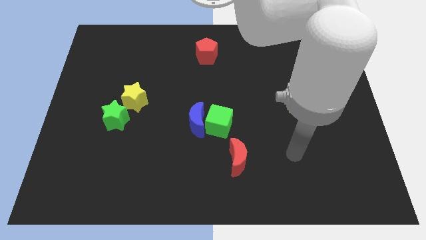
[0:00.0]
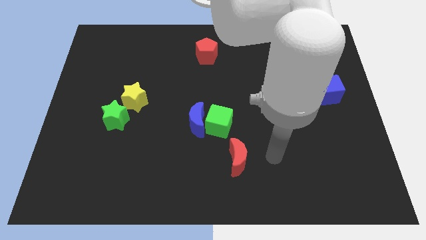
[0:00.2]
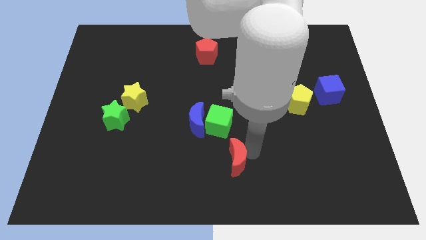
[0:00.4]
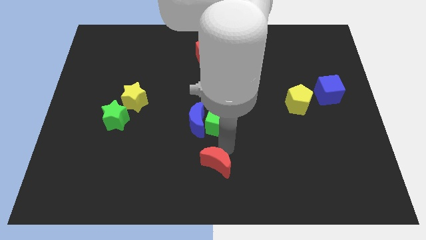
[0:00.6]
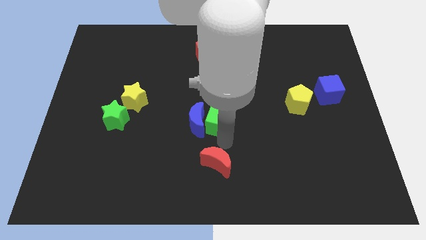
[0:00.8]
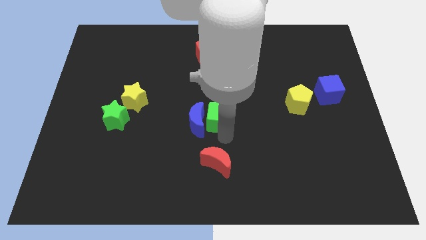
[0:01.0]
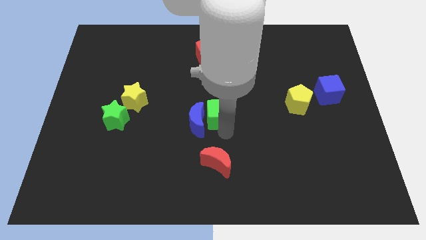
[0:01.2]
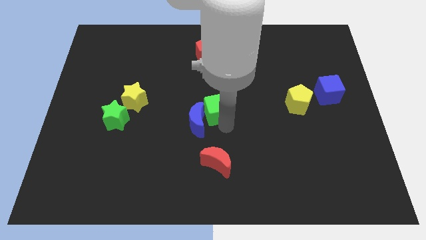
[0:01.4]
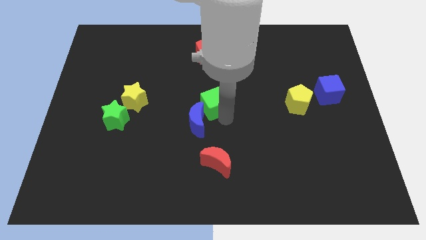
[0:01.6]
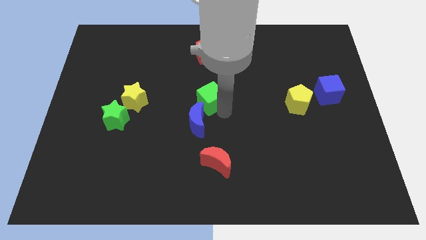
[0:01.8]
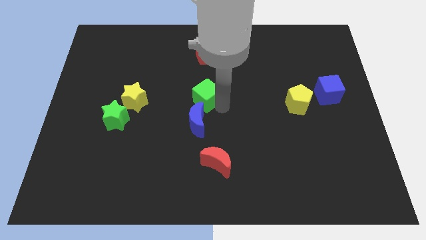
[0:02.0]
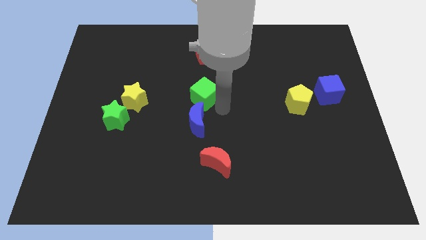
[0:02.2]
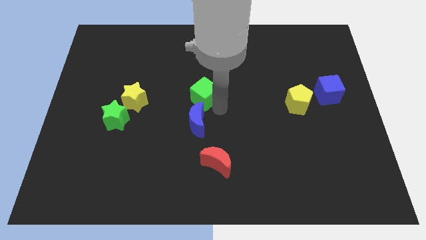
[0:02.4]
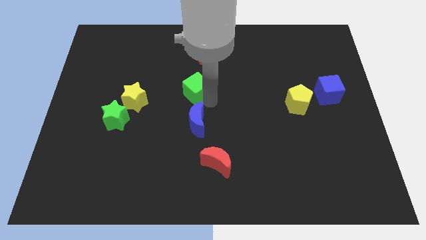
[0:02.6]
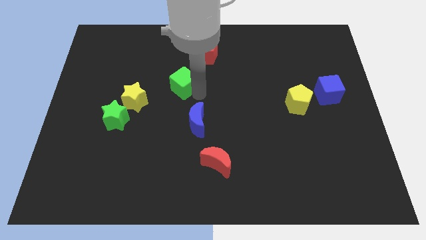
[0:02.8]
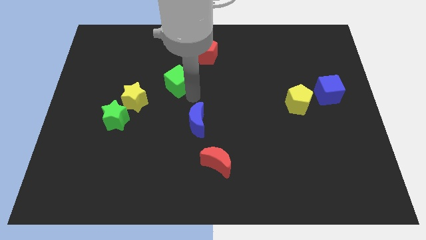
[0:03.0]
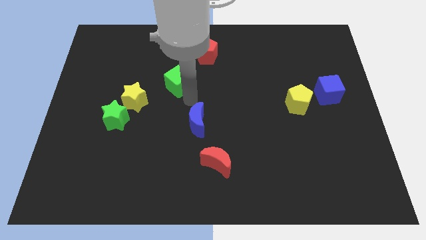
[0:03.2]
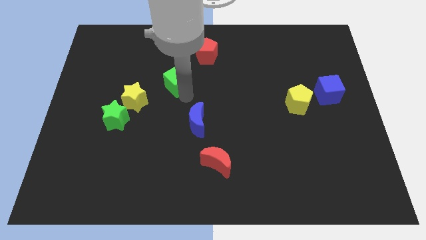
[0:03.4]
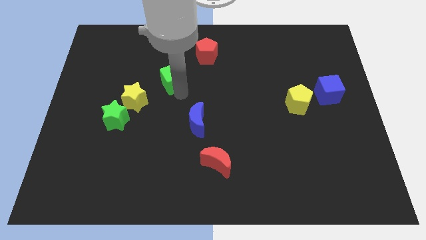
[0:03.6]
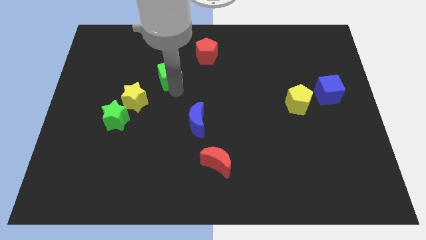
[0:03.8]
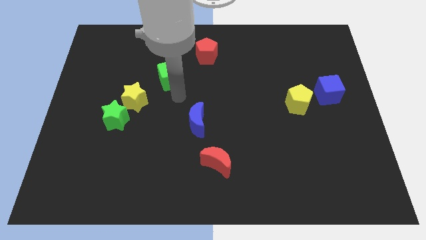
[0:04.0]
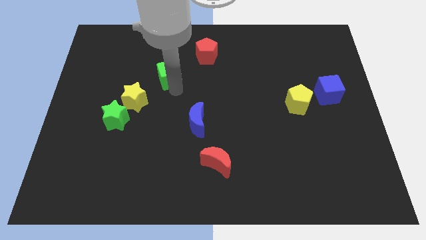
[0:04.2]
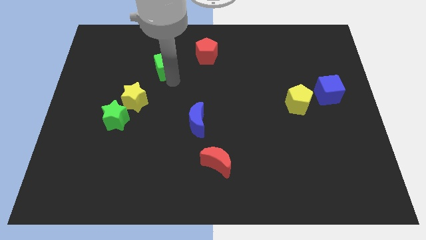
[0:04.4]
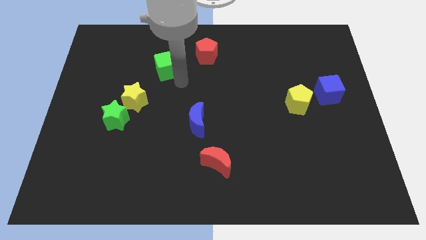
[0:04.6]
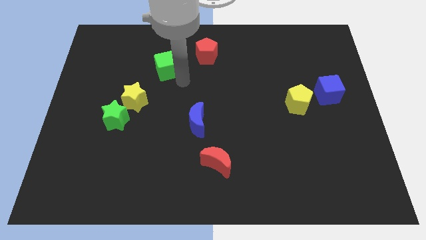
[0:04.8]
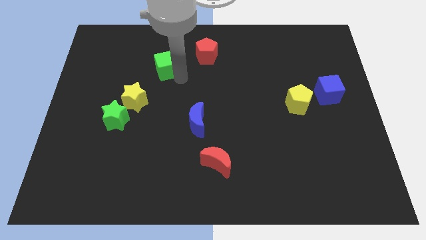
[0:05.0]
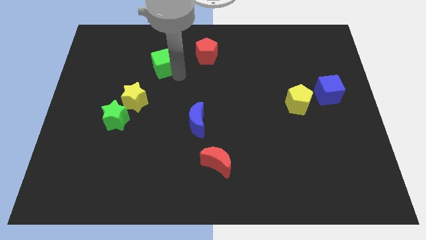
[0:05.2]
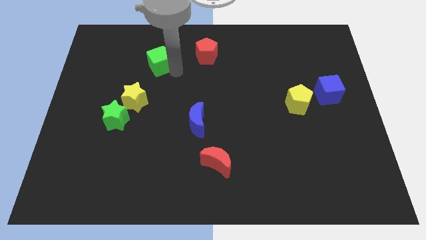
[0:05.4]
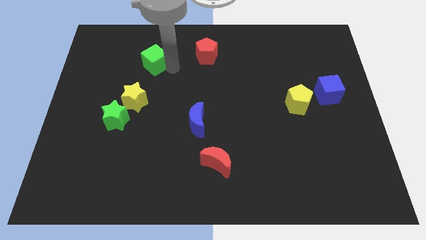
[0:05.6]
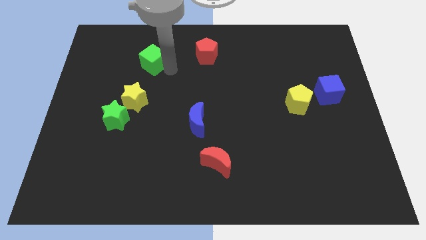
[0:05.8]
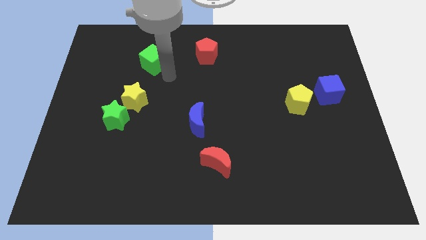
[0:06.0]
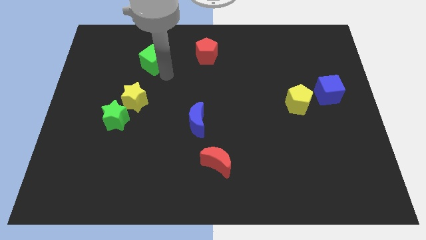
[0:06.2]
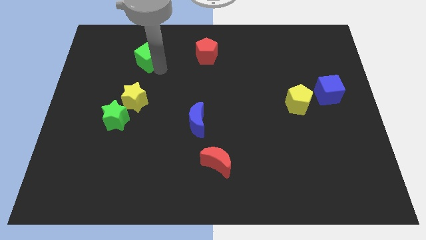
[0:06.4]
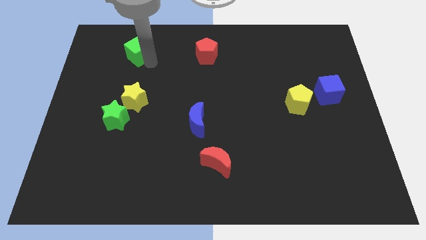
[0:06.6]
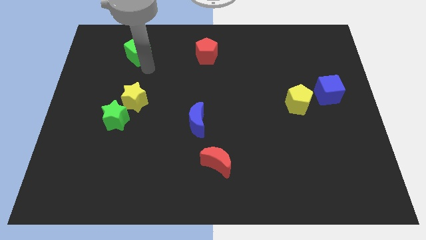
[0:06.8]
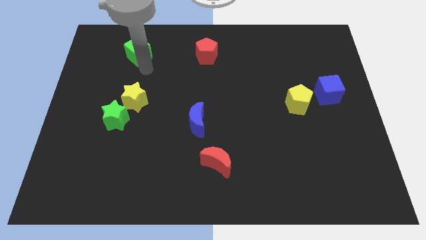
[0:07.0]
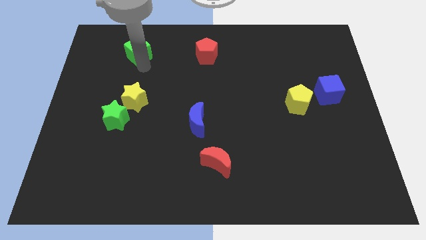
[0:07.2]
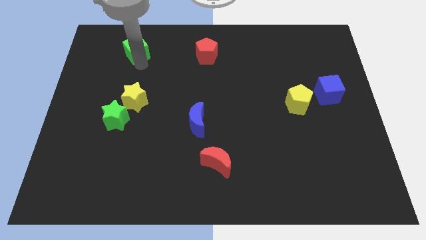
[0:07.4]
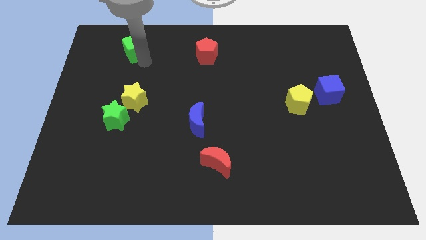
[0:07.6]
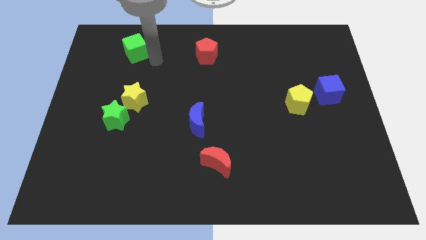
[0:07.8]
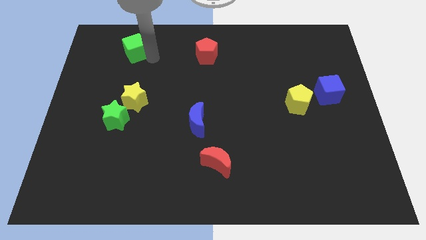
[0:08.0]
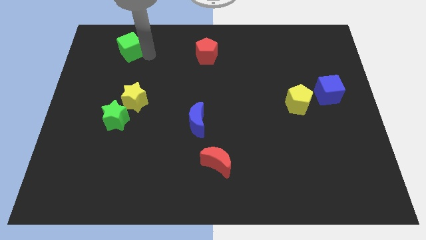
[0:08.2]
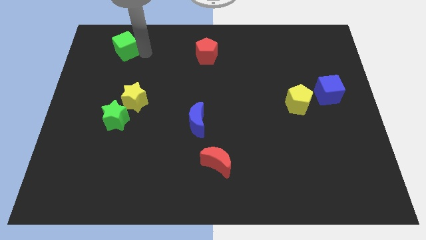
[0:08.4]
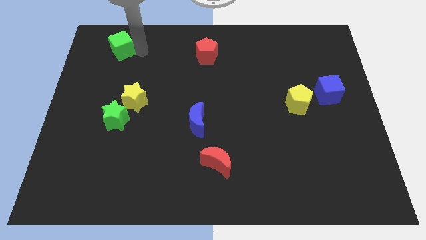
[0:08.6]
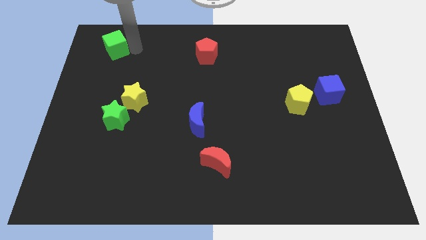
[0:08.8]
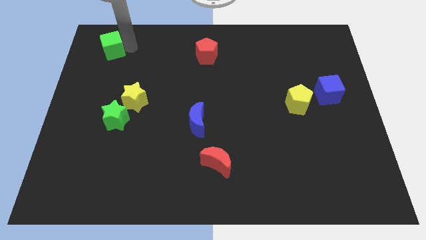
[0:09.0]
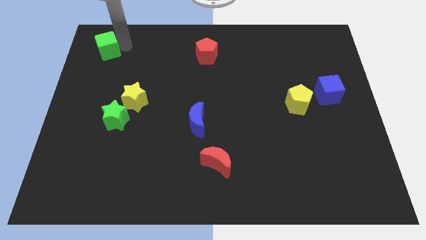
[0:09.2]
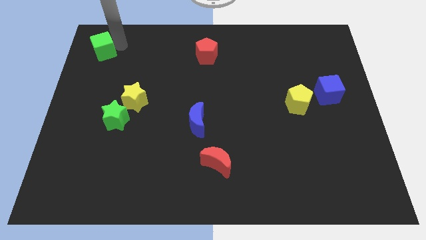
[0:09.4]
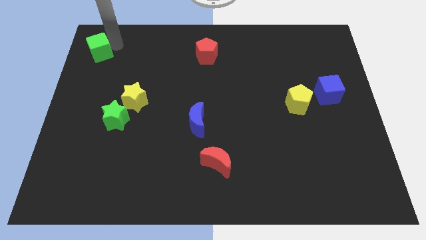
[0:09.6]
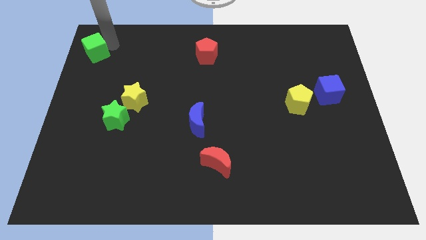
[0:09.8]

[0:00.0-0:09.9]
put the green cube to the top left of the board

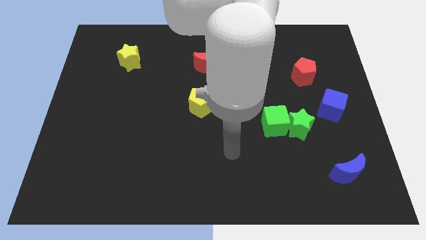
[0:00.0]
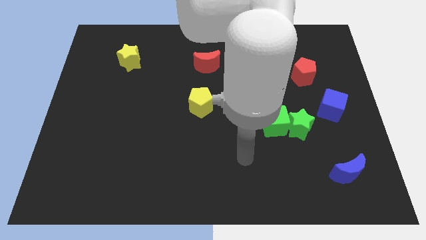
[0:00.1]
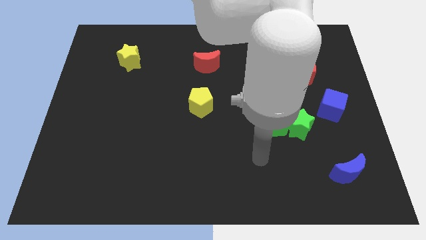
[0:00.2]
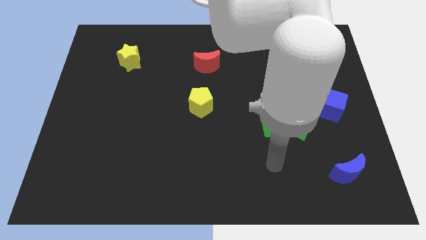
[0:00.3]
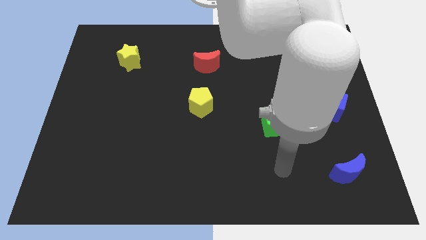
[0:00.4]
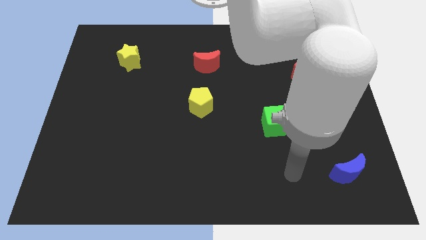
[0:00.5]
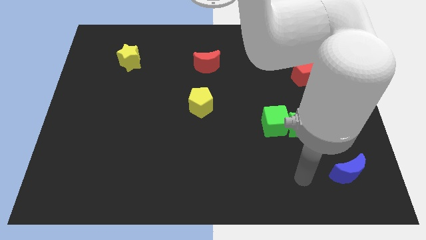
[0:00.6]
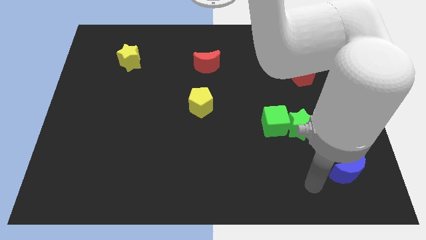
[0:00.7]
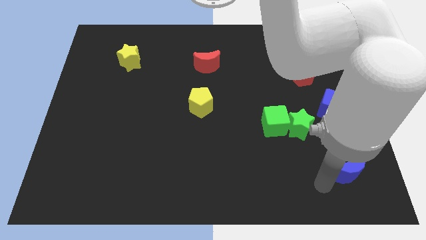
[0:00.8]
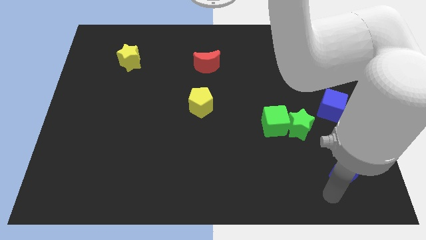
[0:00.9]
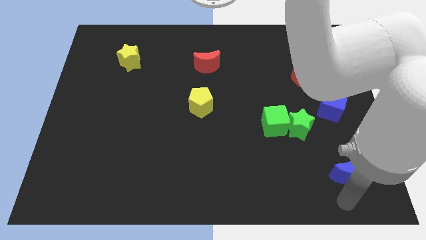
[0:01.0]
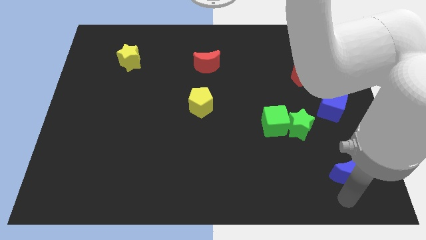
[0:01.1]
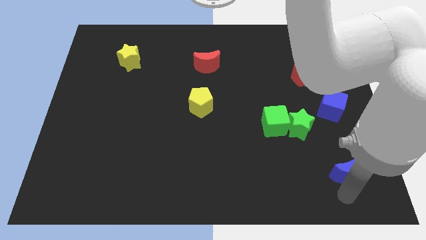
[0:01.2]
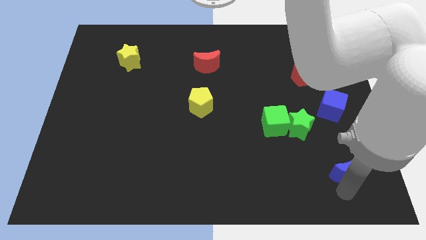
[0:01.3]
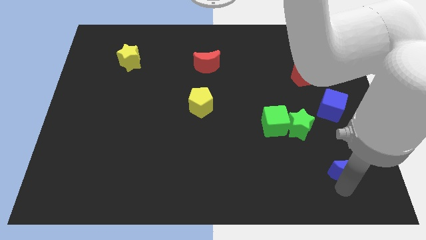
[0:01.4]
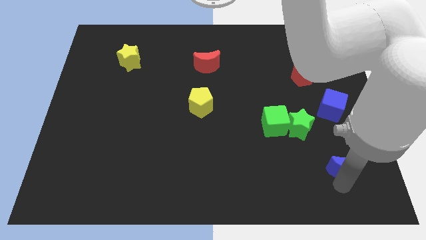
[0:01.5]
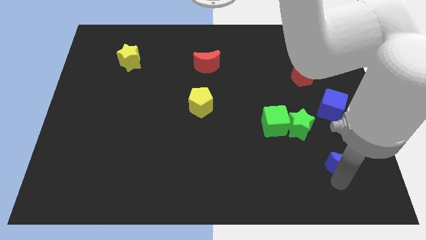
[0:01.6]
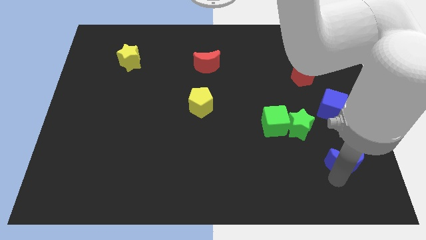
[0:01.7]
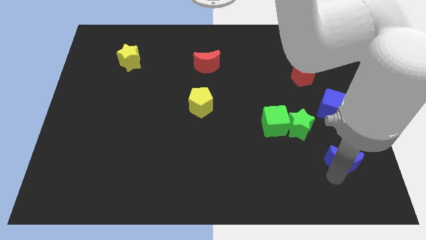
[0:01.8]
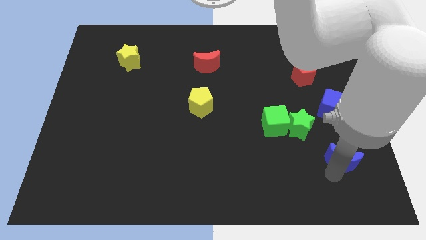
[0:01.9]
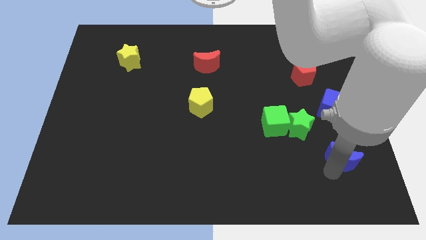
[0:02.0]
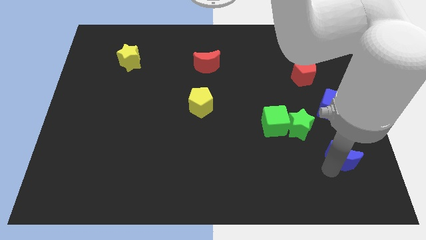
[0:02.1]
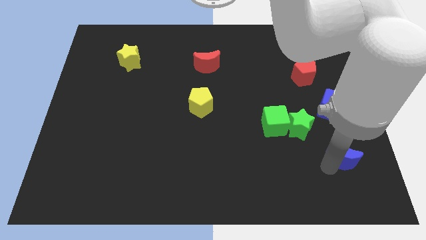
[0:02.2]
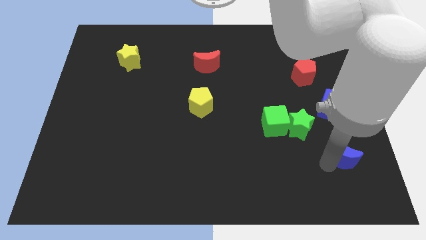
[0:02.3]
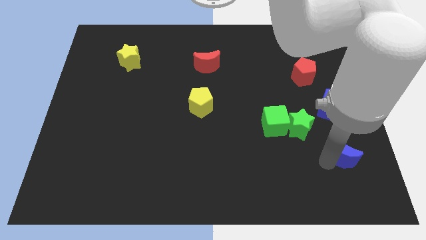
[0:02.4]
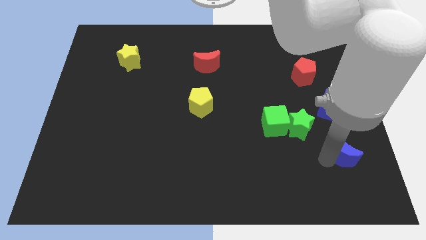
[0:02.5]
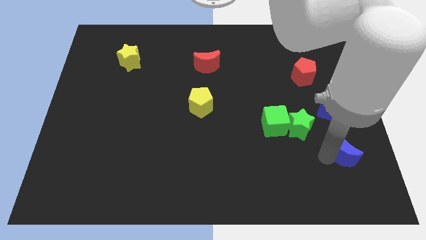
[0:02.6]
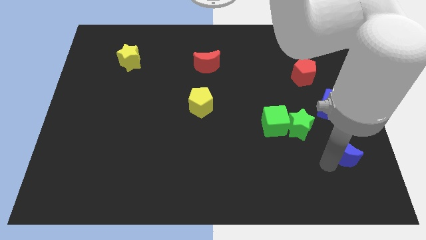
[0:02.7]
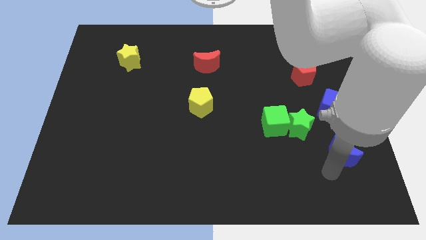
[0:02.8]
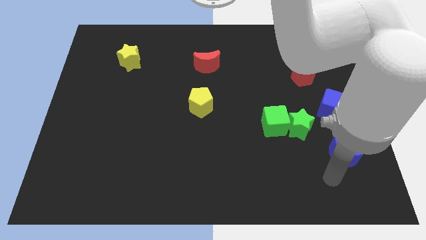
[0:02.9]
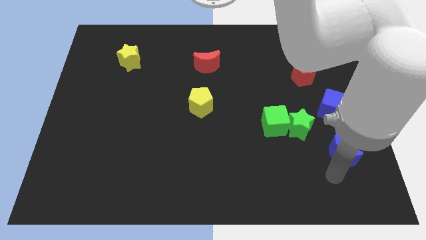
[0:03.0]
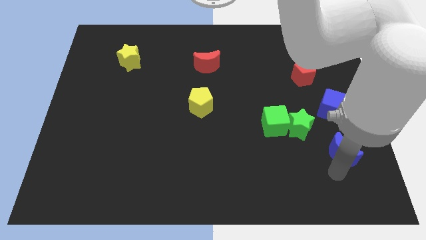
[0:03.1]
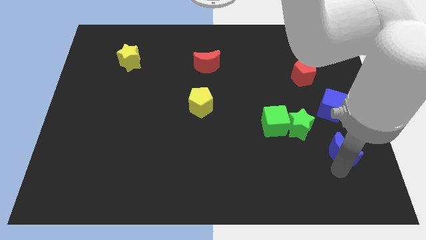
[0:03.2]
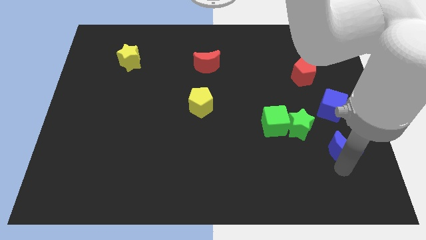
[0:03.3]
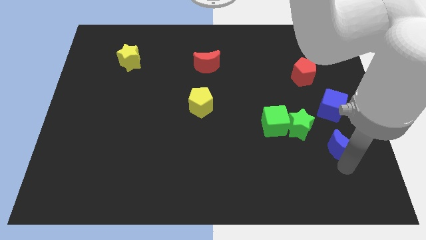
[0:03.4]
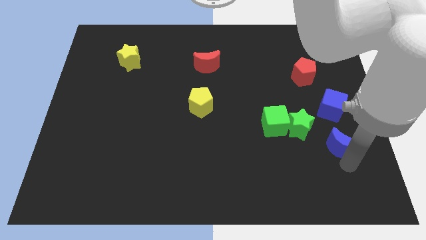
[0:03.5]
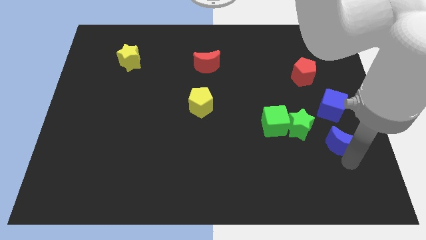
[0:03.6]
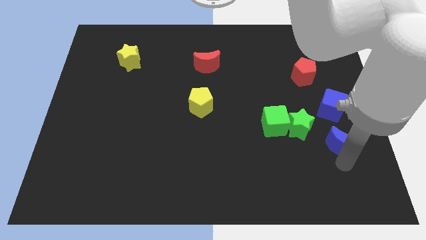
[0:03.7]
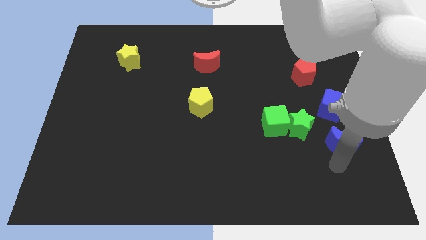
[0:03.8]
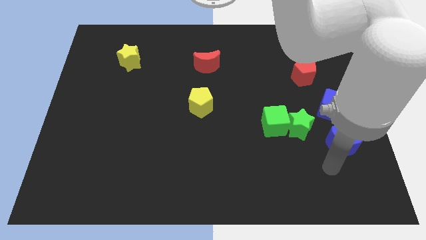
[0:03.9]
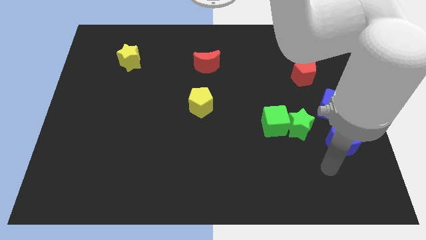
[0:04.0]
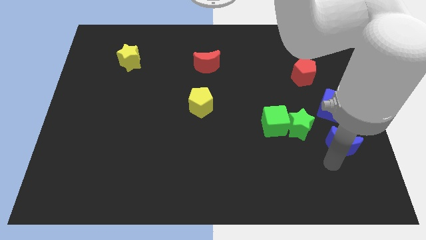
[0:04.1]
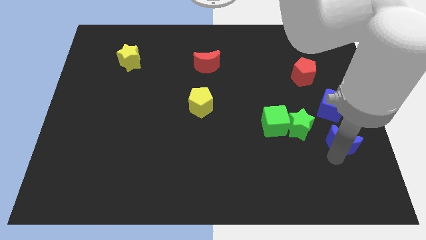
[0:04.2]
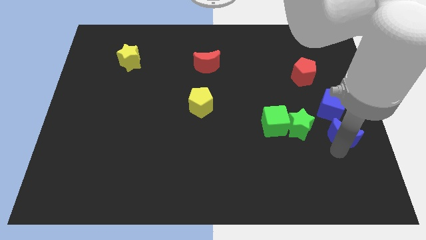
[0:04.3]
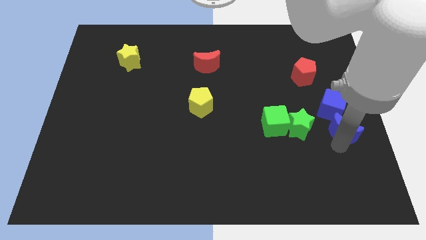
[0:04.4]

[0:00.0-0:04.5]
move the blue moon to the right side
